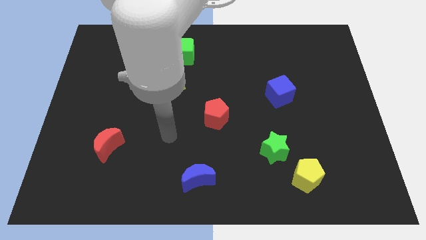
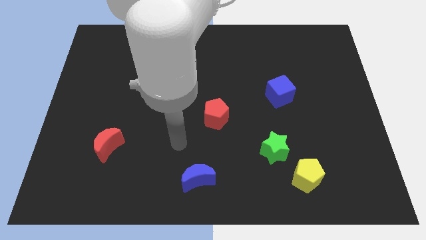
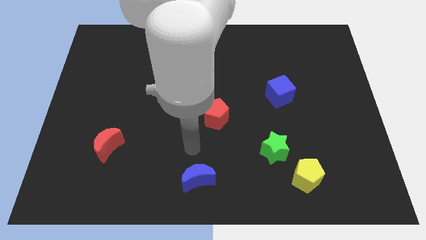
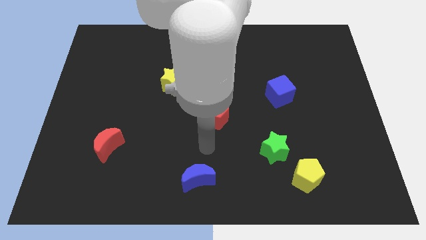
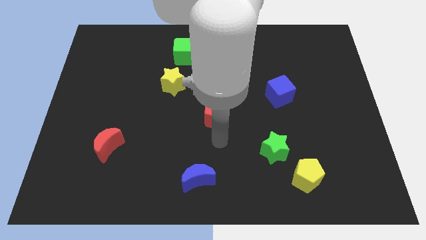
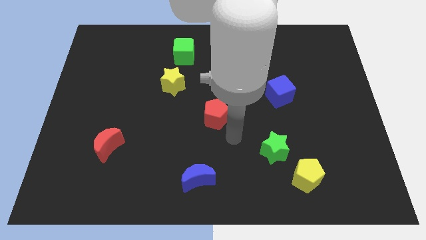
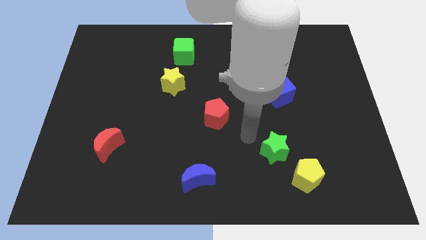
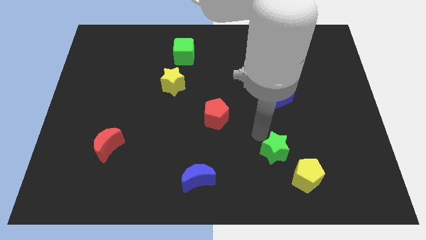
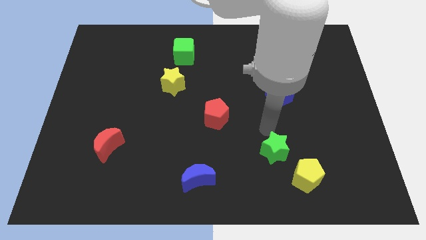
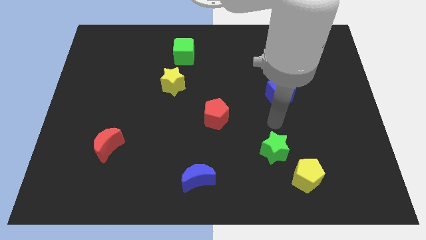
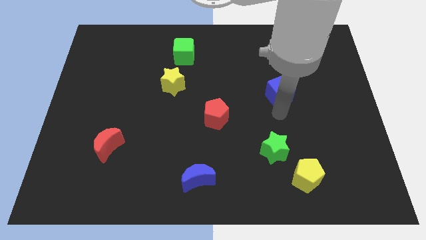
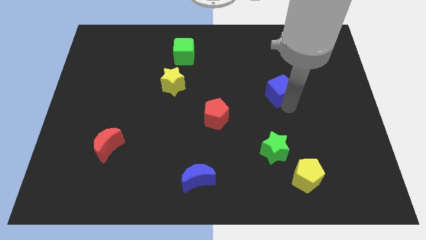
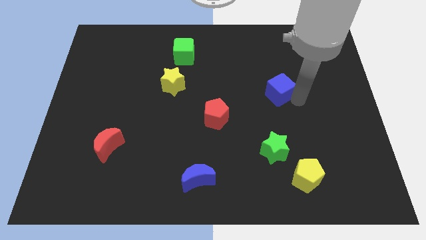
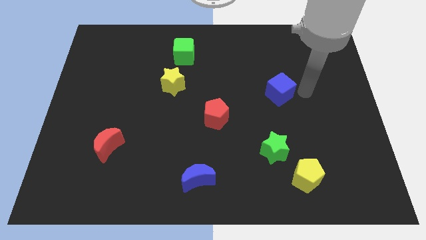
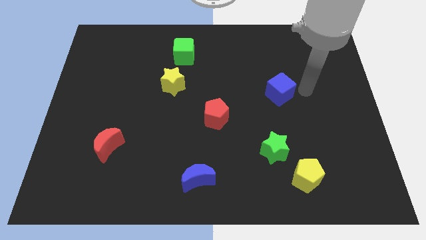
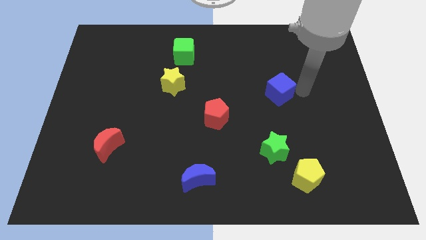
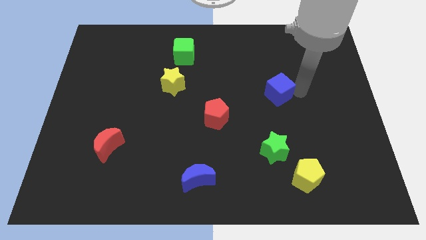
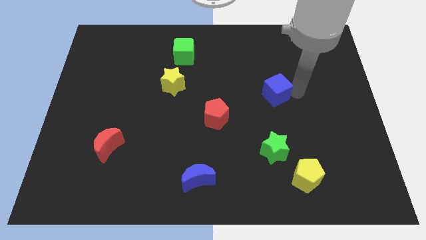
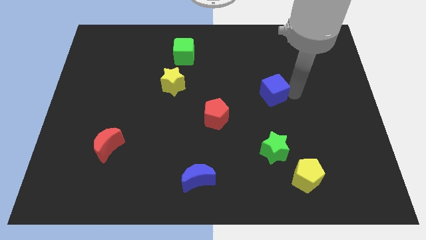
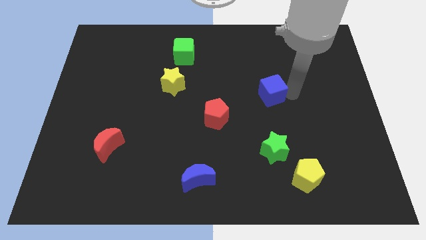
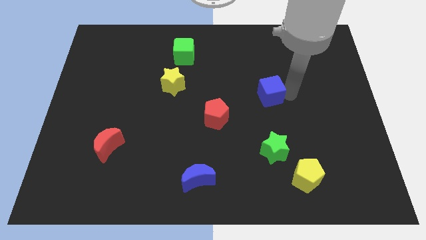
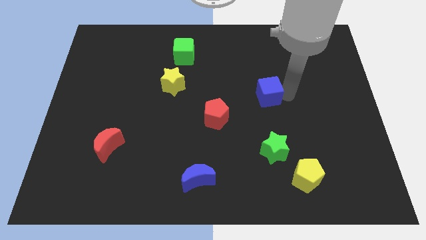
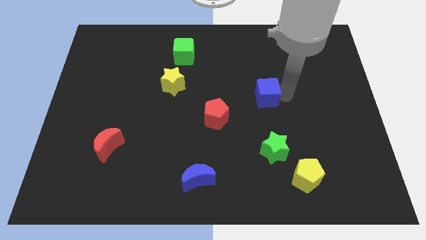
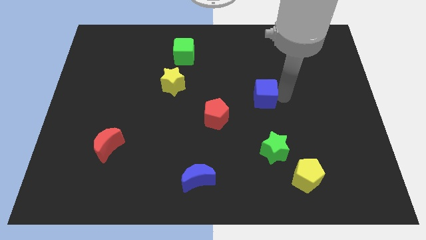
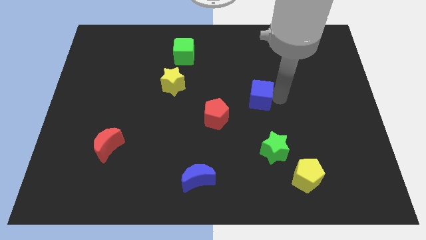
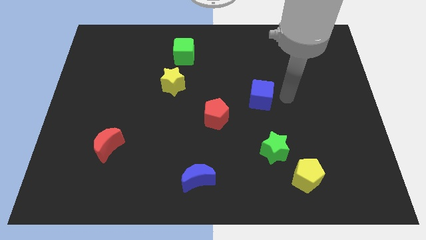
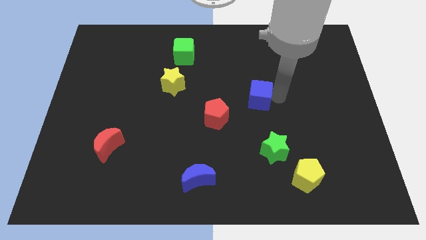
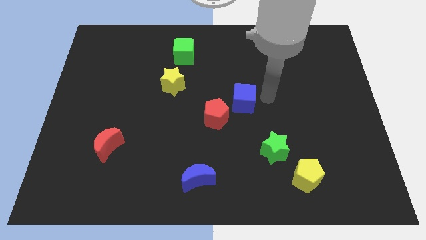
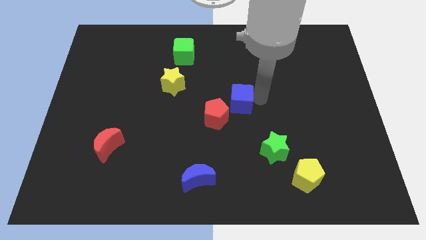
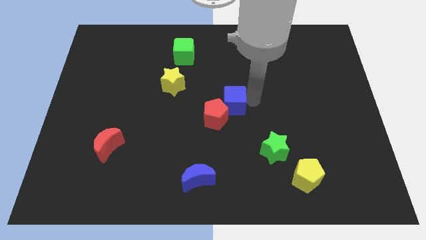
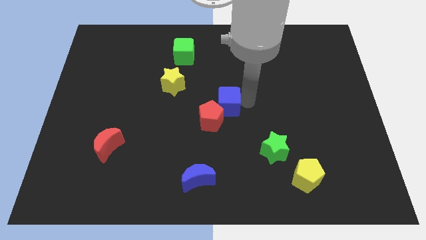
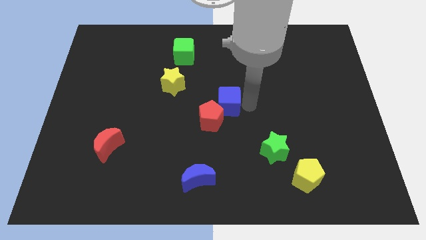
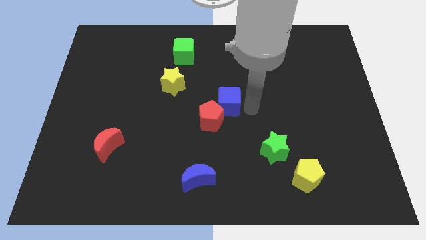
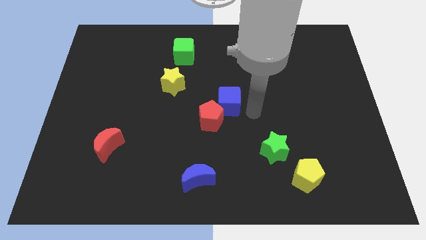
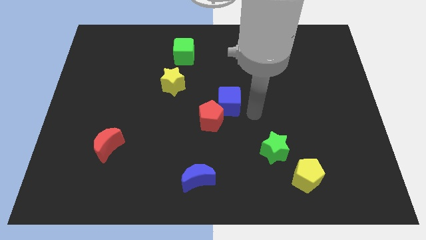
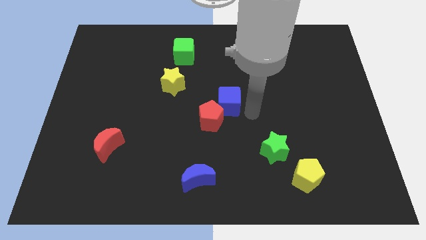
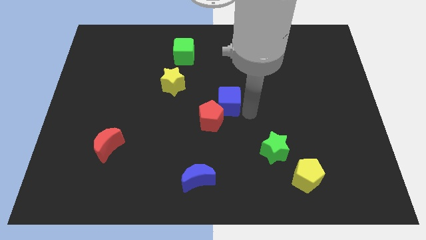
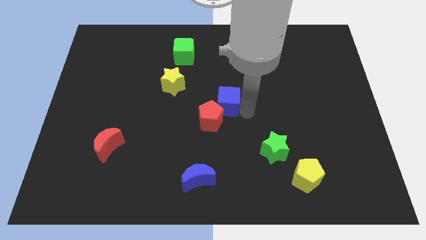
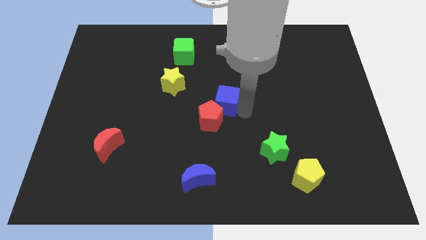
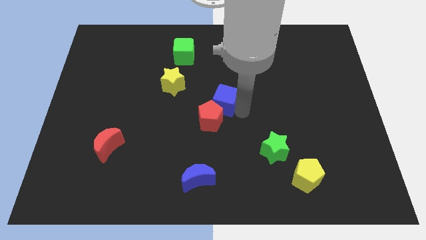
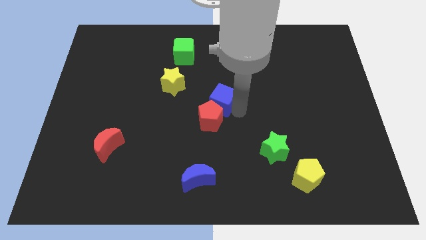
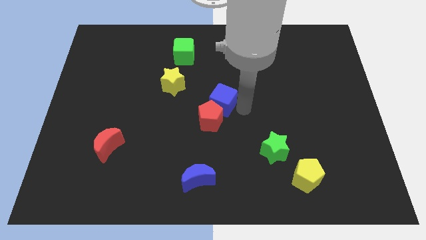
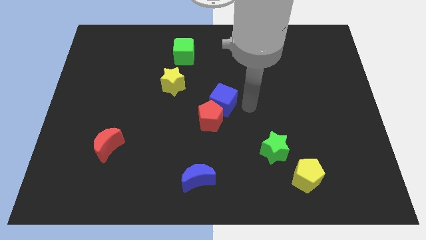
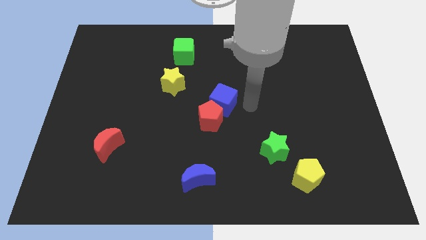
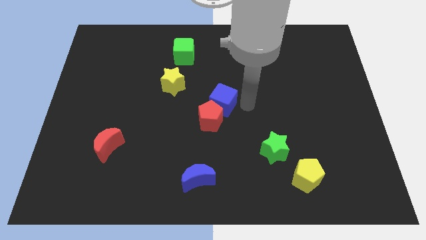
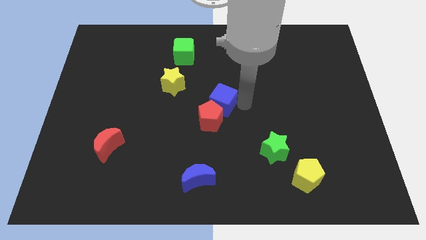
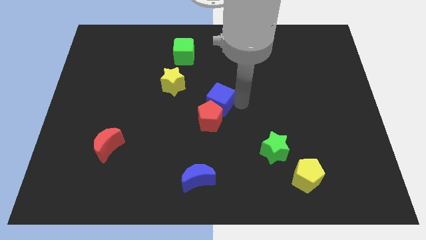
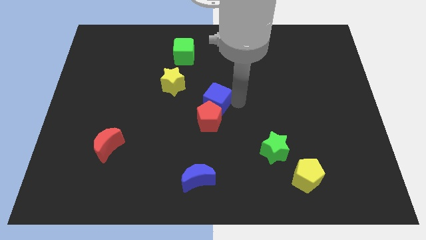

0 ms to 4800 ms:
push the blue cube to the bottom right side of the yellow star

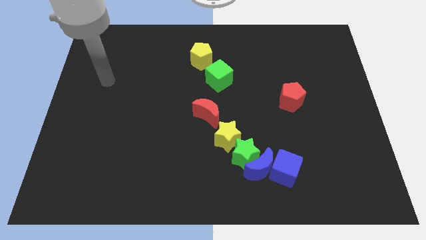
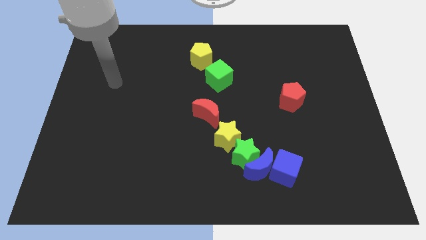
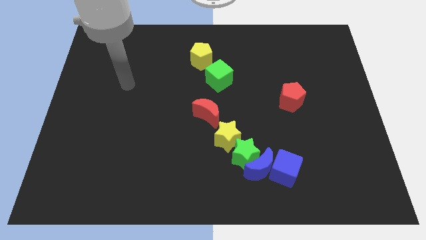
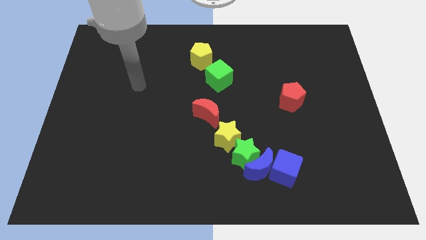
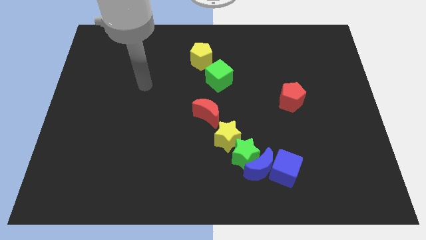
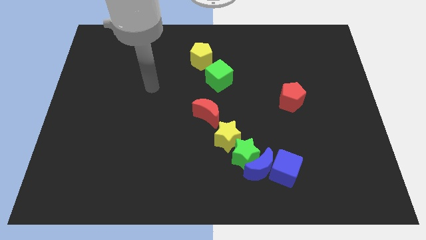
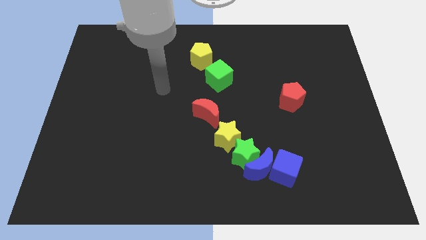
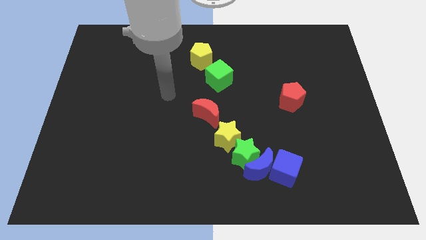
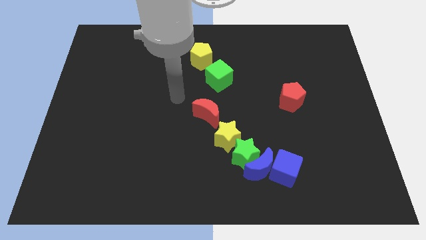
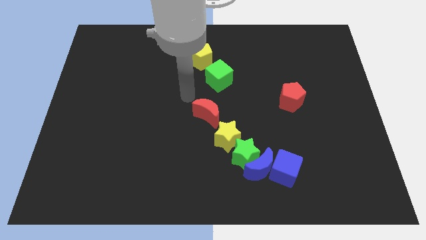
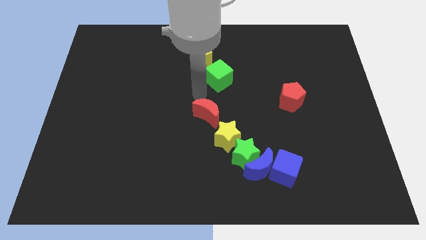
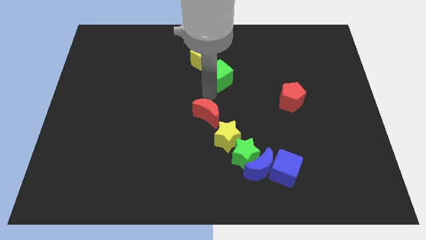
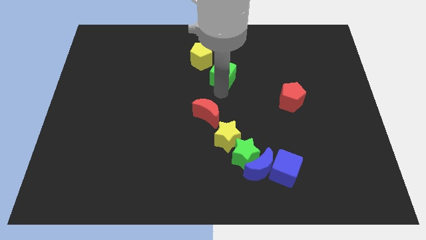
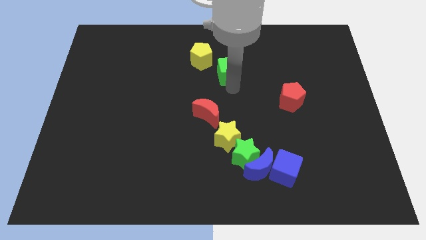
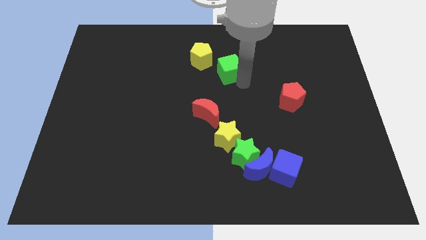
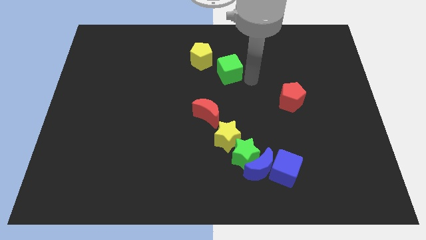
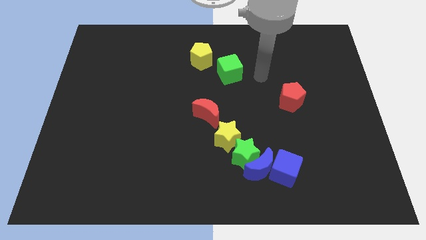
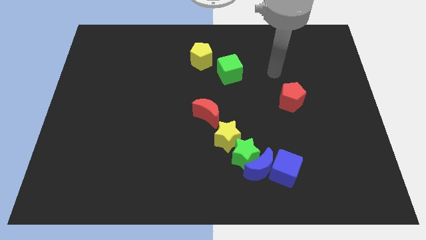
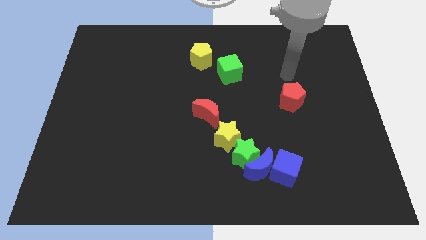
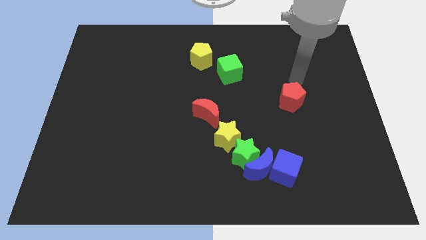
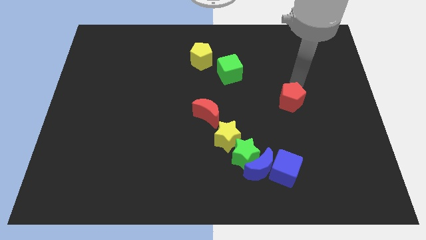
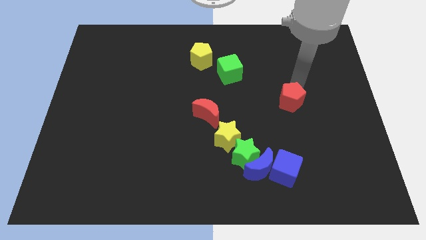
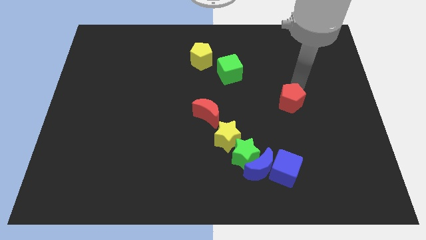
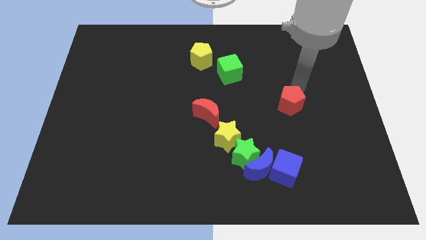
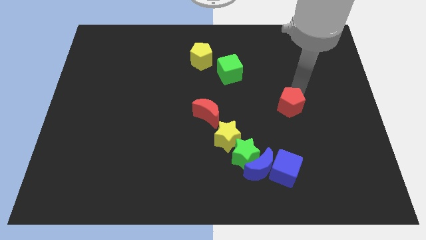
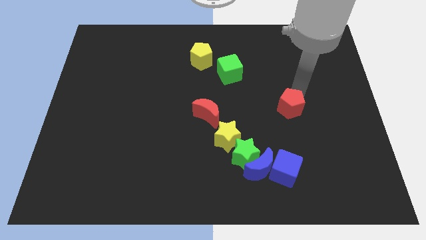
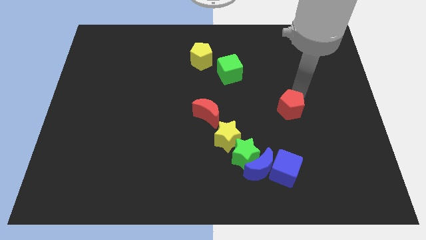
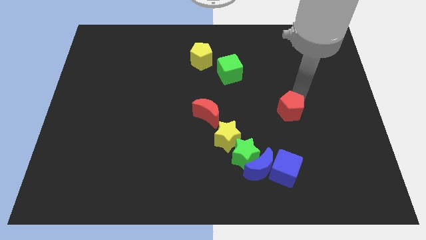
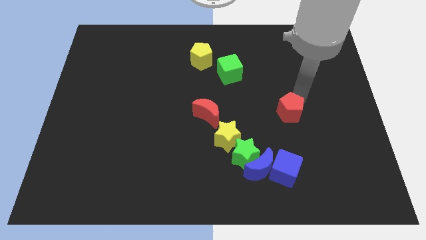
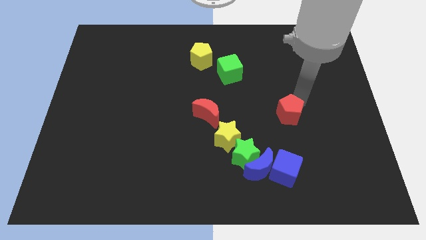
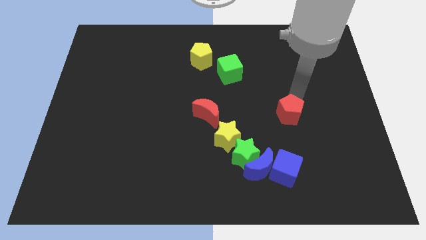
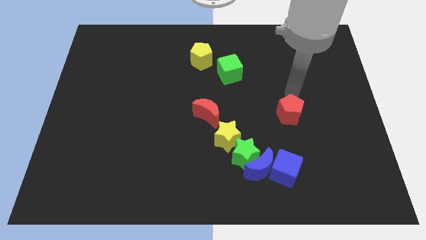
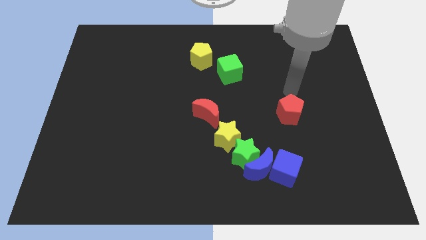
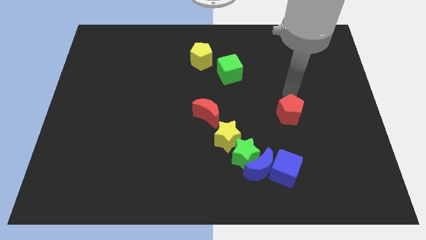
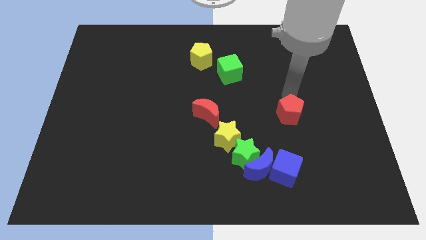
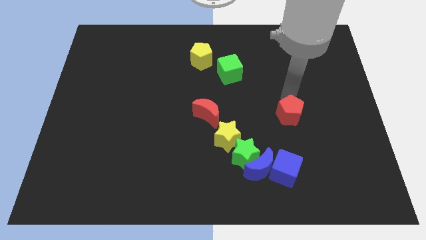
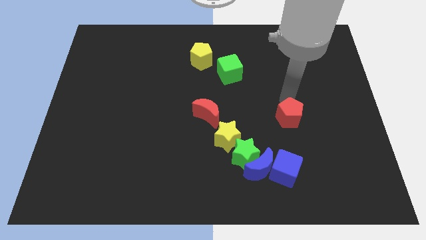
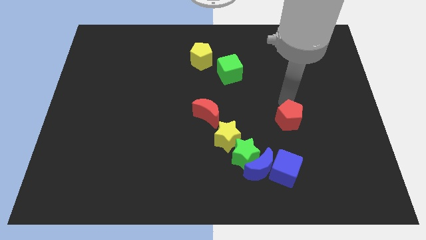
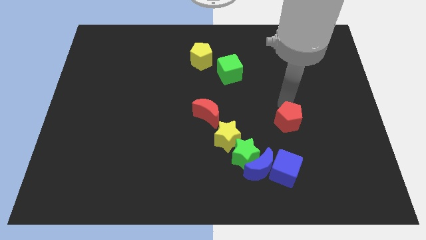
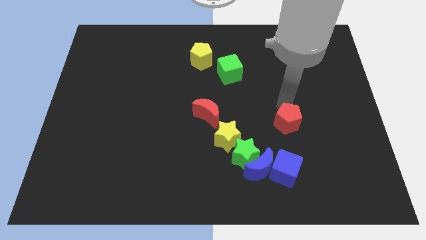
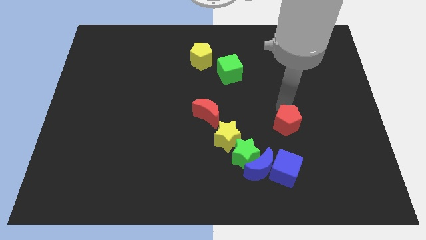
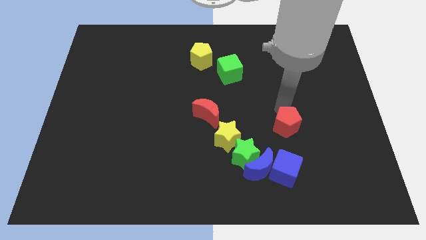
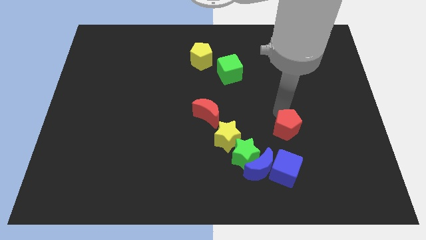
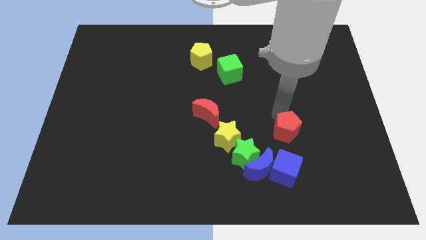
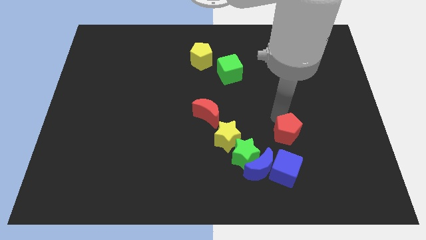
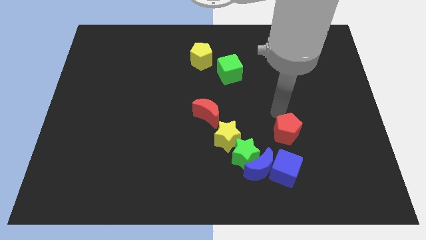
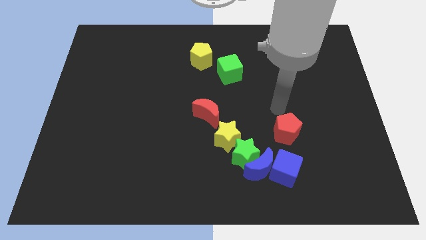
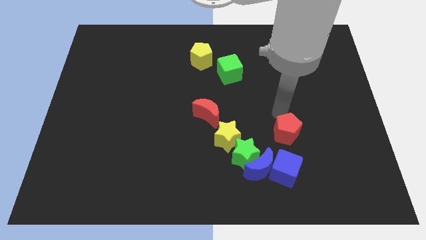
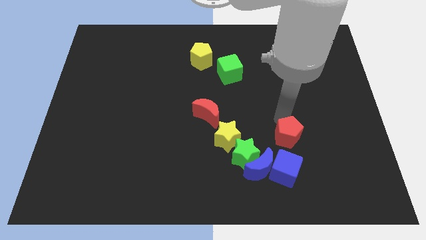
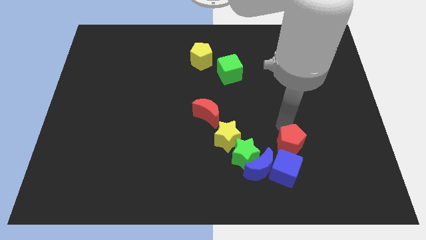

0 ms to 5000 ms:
put the red pentagon just right of the green star
